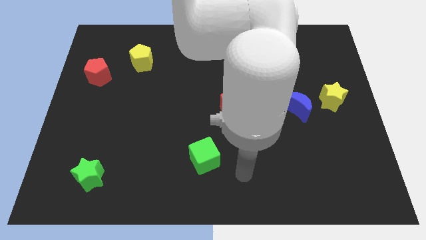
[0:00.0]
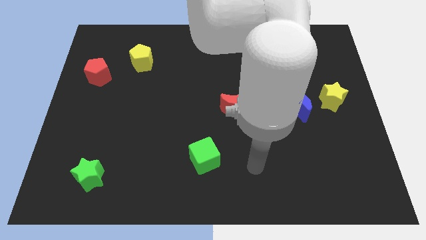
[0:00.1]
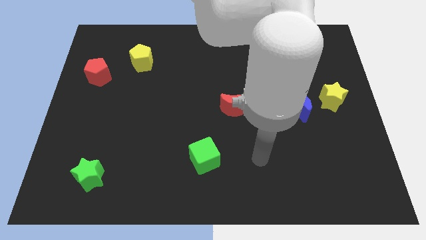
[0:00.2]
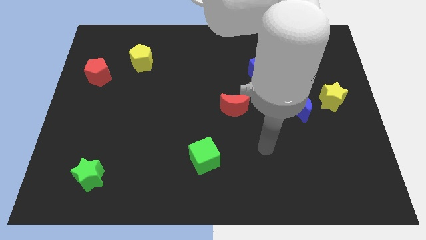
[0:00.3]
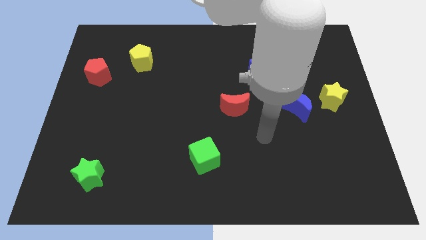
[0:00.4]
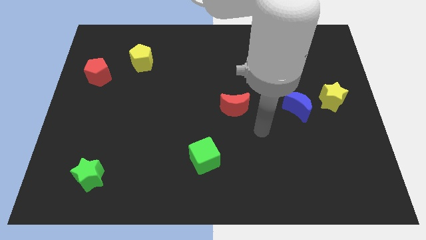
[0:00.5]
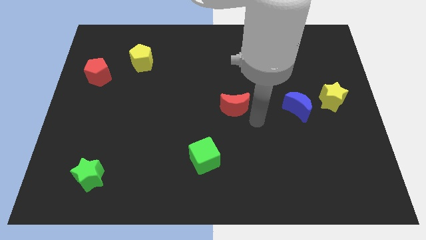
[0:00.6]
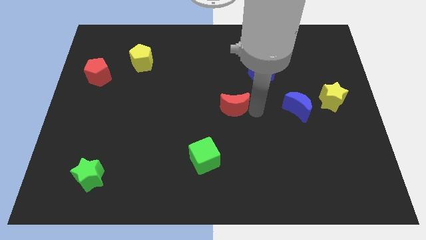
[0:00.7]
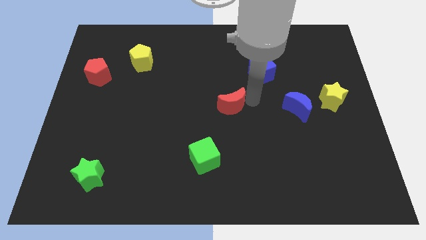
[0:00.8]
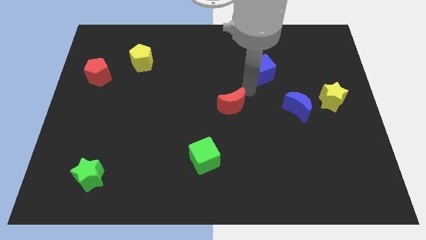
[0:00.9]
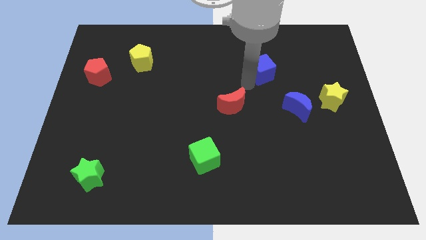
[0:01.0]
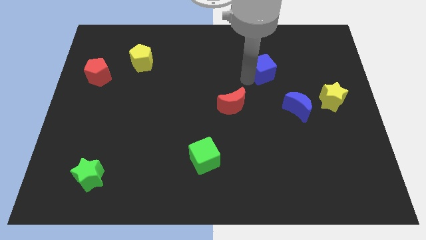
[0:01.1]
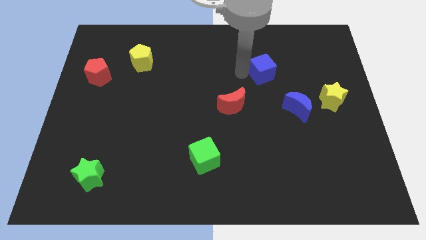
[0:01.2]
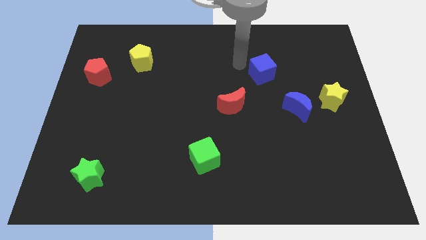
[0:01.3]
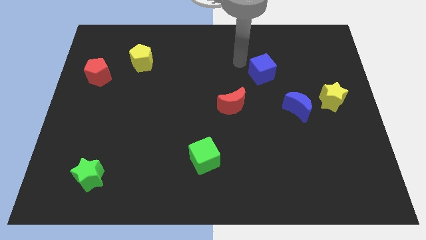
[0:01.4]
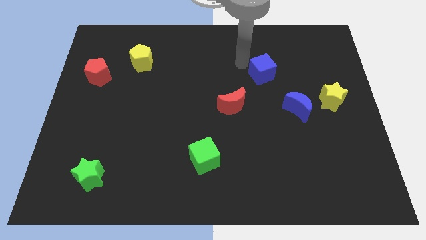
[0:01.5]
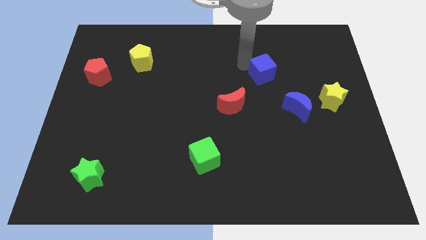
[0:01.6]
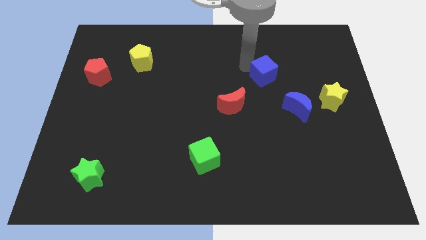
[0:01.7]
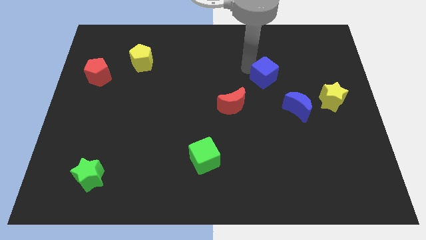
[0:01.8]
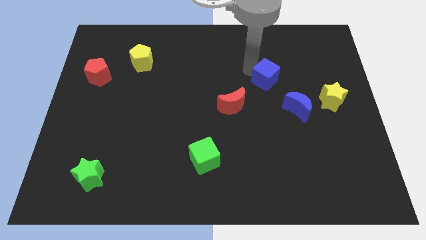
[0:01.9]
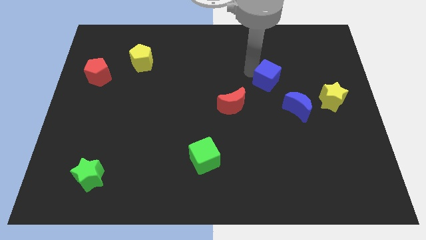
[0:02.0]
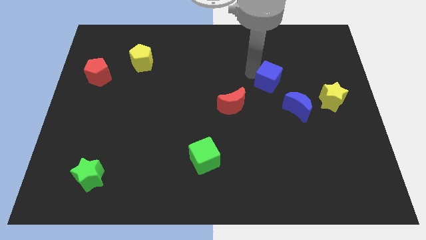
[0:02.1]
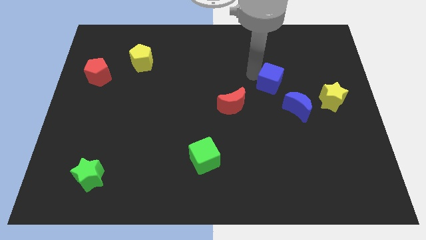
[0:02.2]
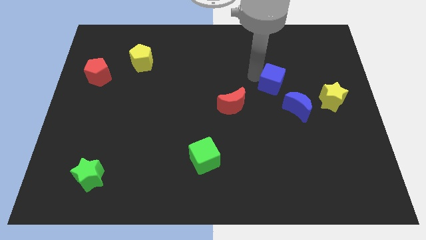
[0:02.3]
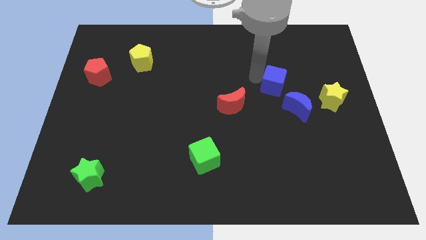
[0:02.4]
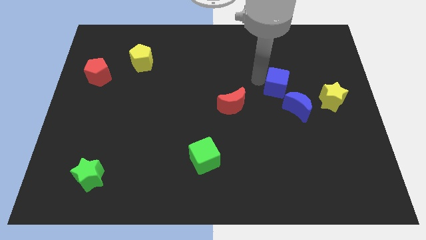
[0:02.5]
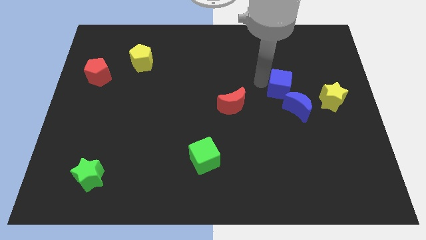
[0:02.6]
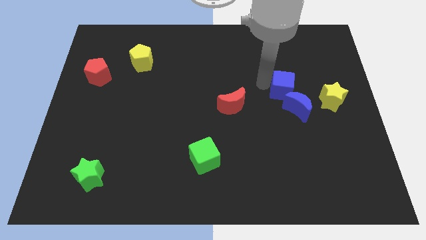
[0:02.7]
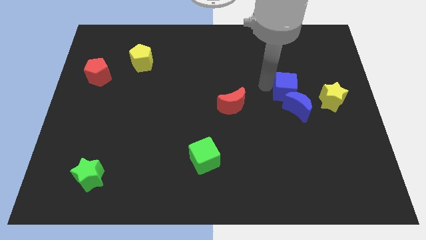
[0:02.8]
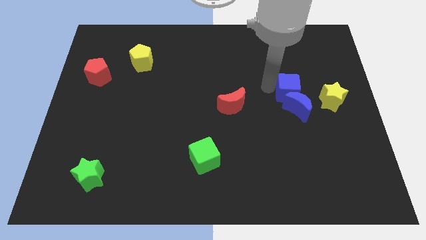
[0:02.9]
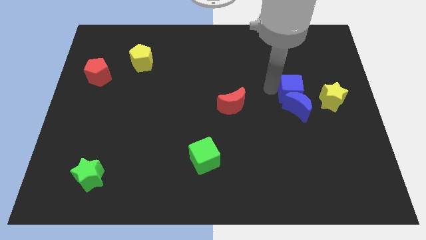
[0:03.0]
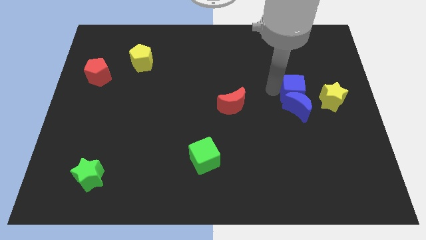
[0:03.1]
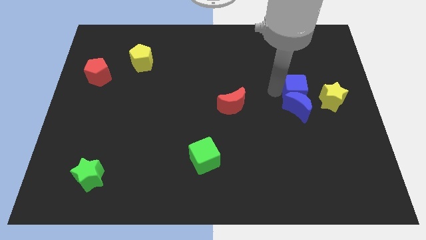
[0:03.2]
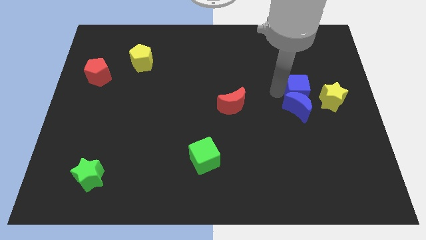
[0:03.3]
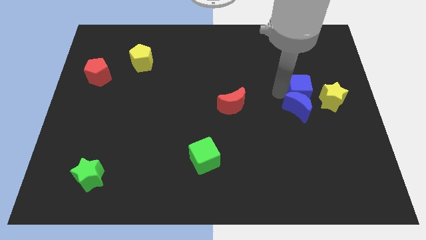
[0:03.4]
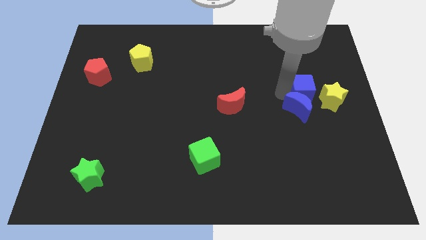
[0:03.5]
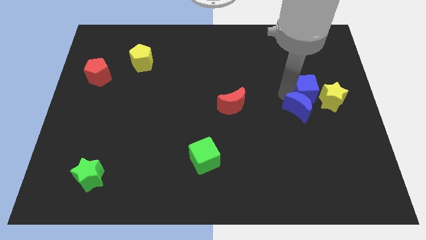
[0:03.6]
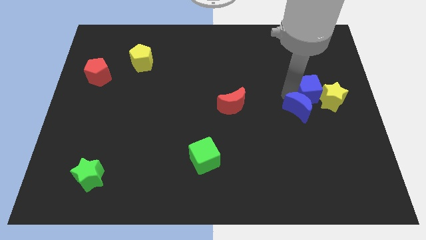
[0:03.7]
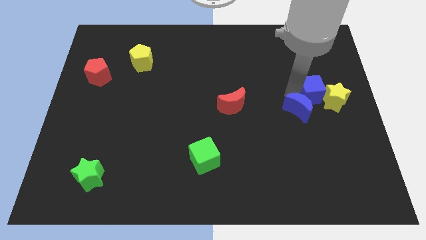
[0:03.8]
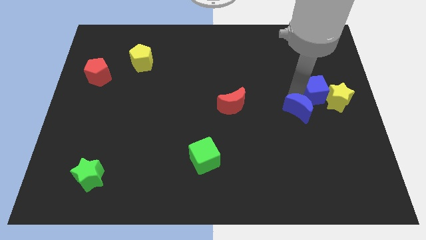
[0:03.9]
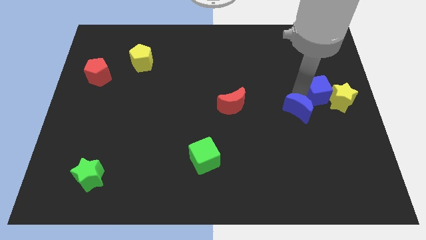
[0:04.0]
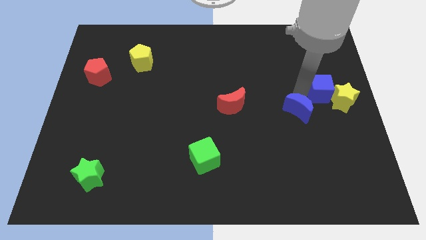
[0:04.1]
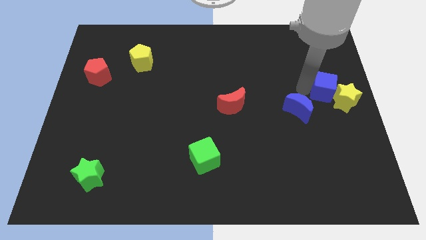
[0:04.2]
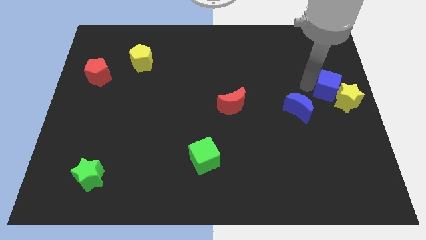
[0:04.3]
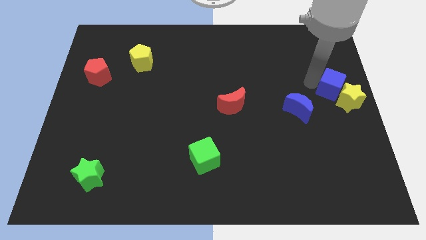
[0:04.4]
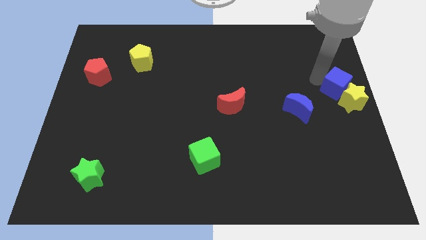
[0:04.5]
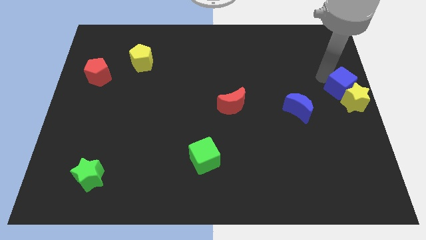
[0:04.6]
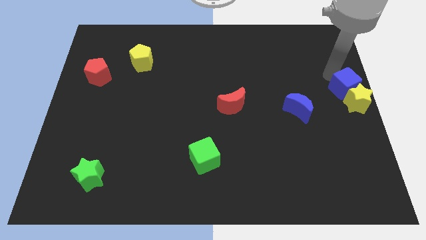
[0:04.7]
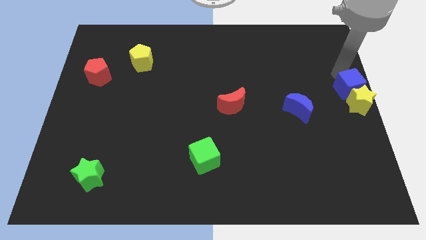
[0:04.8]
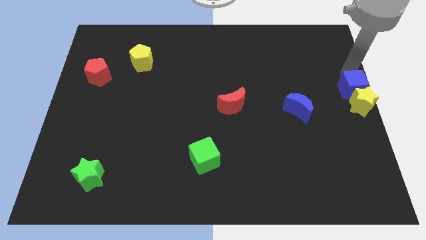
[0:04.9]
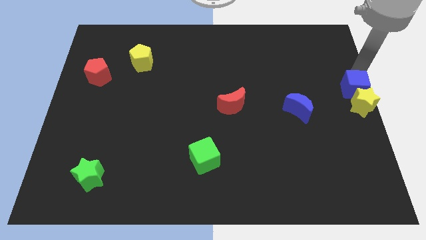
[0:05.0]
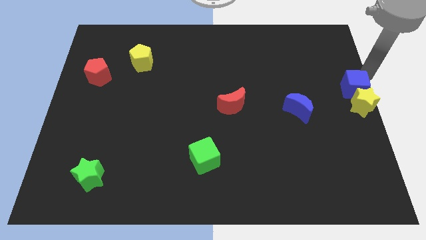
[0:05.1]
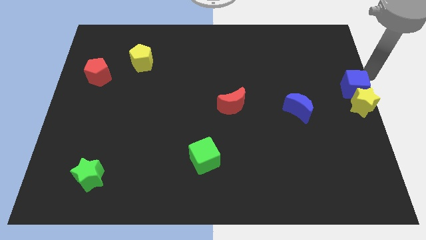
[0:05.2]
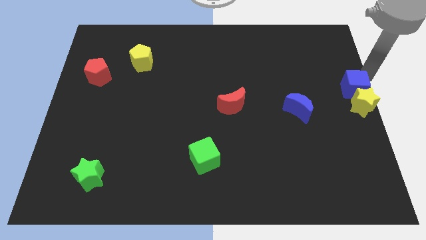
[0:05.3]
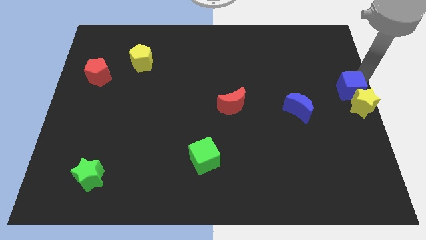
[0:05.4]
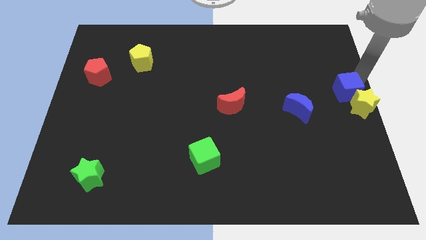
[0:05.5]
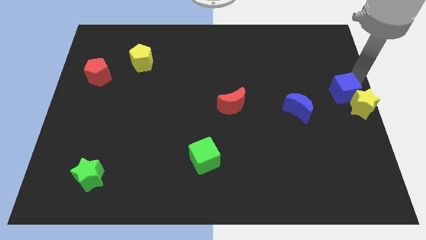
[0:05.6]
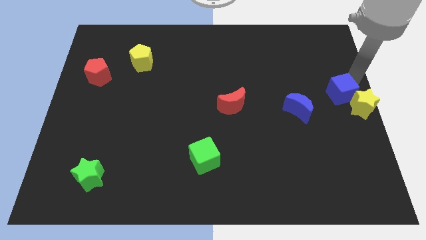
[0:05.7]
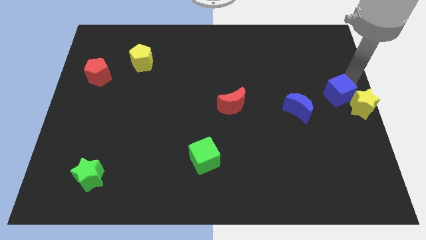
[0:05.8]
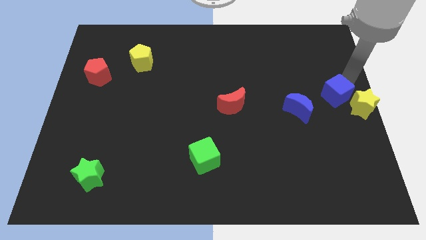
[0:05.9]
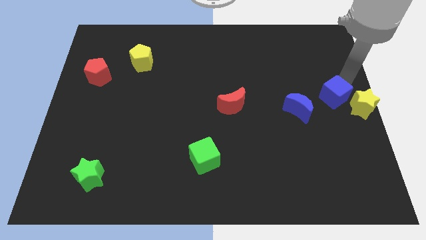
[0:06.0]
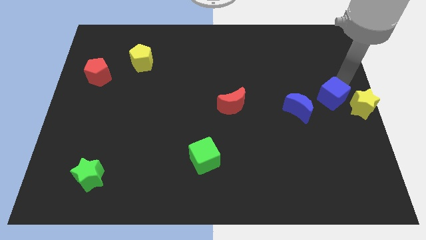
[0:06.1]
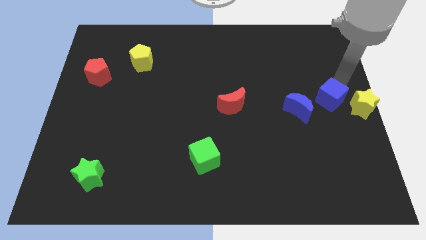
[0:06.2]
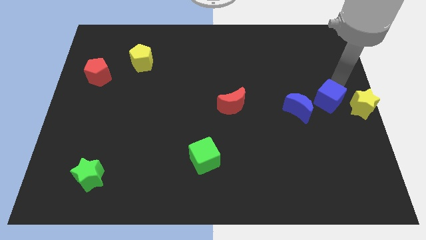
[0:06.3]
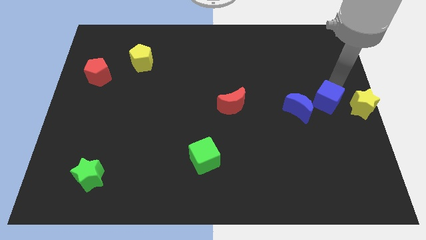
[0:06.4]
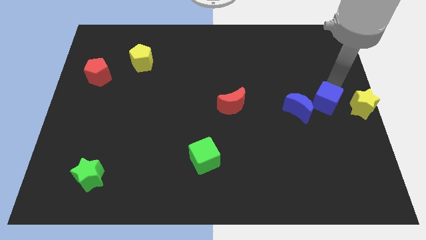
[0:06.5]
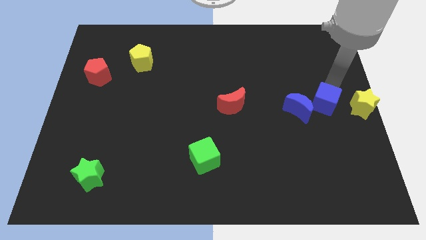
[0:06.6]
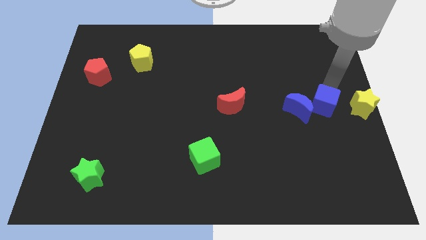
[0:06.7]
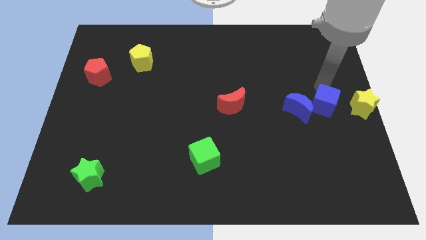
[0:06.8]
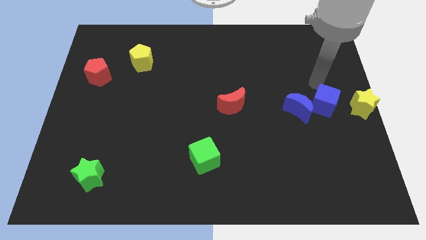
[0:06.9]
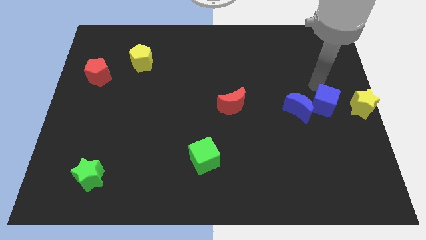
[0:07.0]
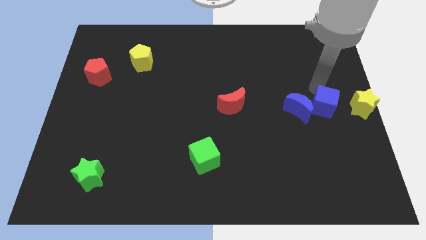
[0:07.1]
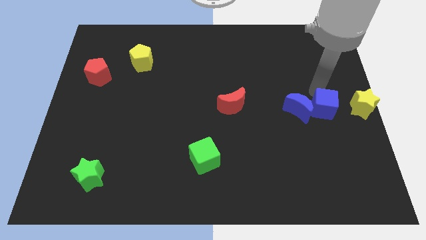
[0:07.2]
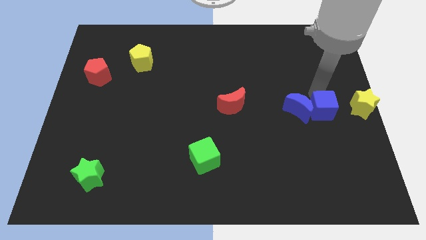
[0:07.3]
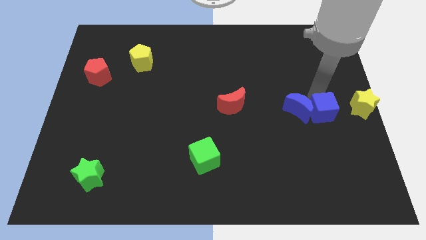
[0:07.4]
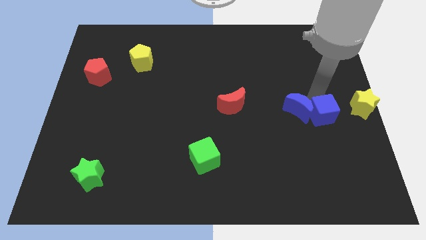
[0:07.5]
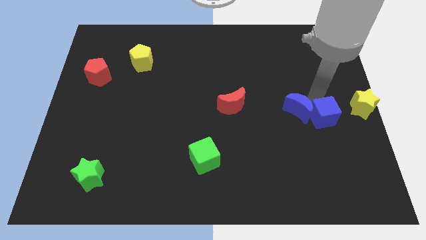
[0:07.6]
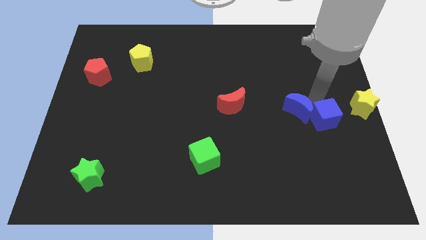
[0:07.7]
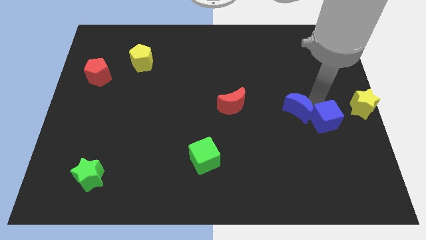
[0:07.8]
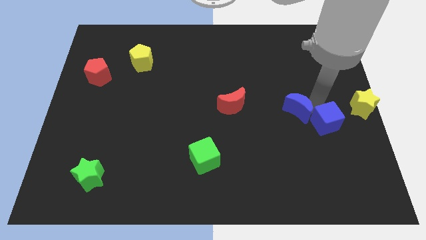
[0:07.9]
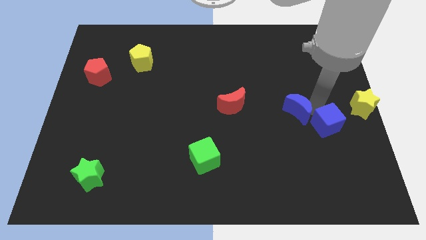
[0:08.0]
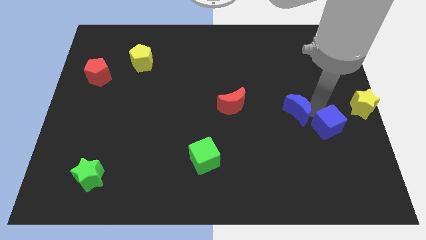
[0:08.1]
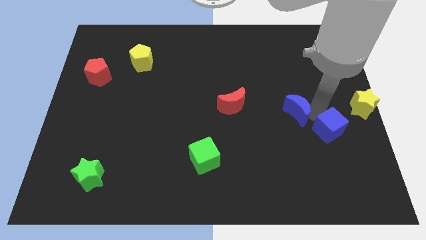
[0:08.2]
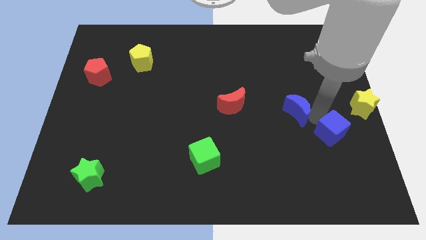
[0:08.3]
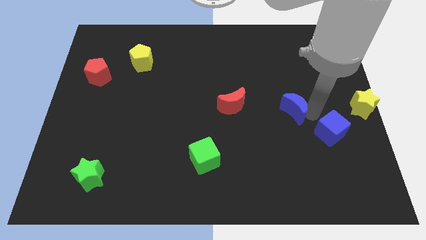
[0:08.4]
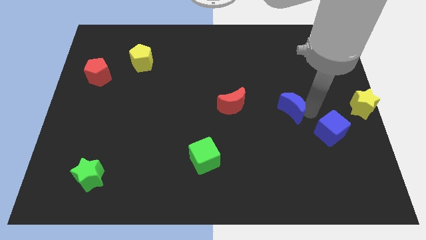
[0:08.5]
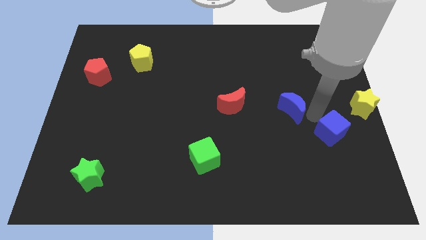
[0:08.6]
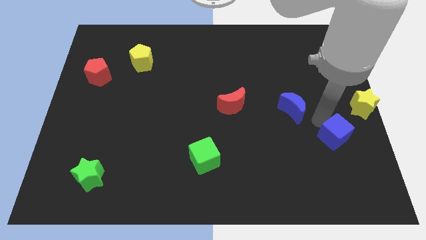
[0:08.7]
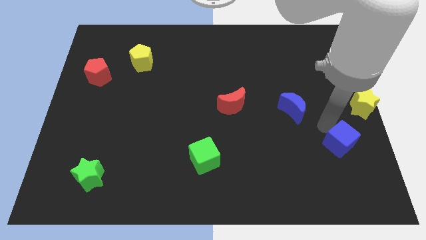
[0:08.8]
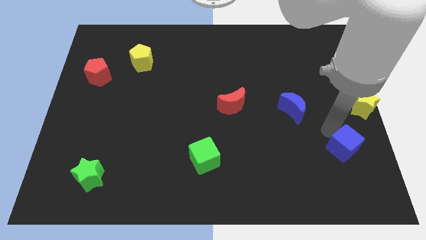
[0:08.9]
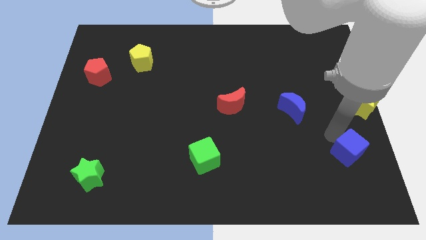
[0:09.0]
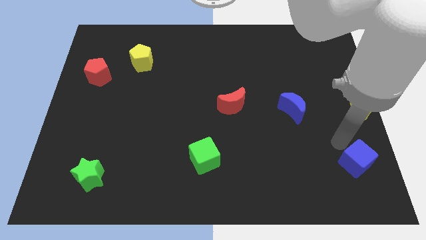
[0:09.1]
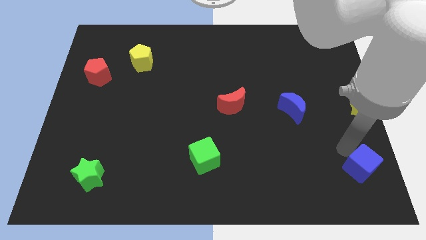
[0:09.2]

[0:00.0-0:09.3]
move the blue cube to the bottom right of the board
